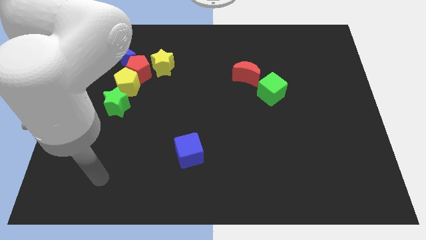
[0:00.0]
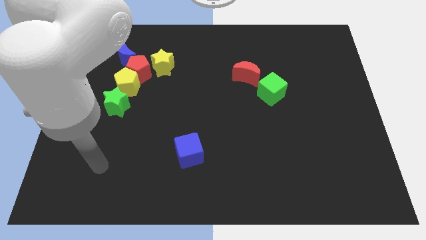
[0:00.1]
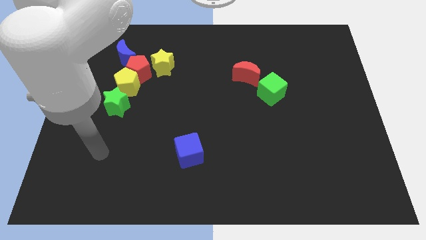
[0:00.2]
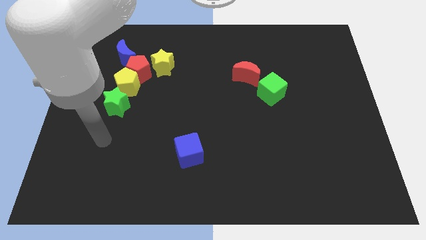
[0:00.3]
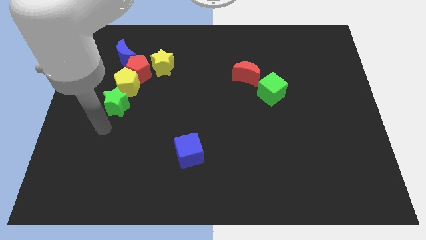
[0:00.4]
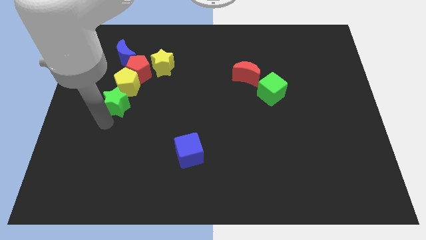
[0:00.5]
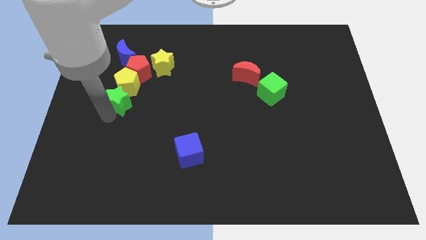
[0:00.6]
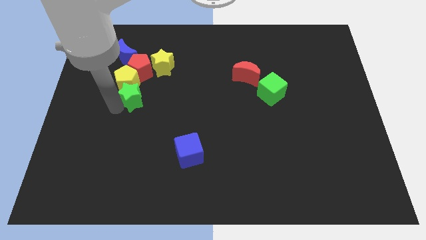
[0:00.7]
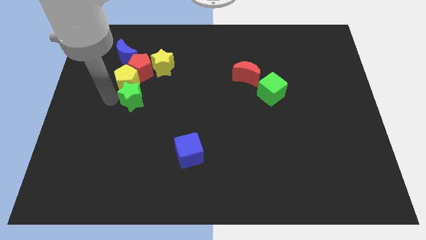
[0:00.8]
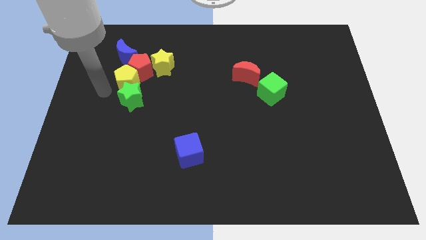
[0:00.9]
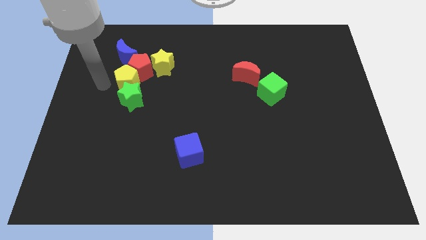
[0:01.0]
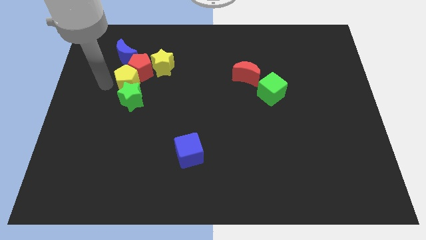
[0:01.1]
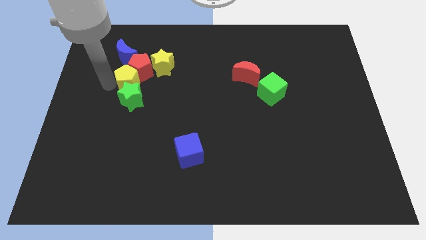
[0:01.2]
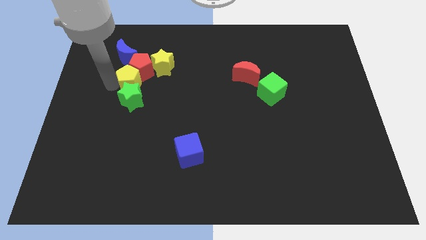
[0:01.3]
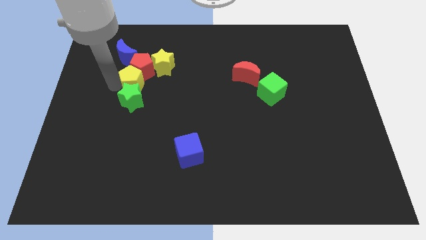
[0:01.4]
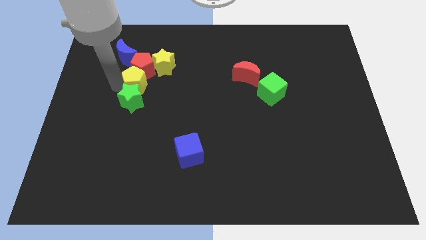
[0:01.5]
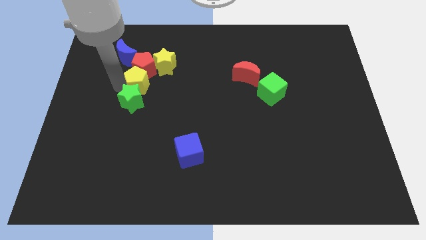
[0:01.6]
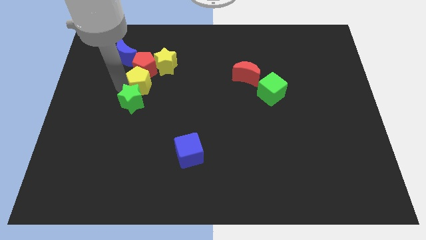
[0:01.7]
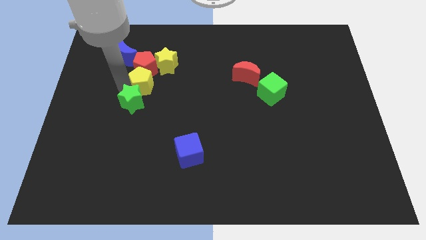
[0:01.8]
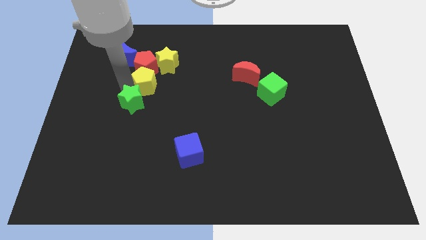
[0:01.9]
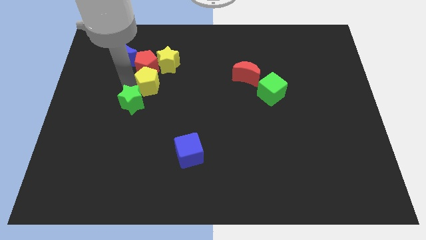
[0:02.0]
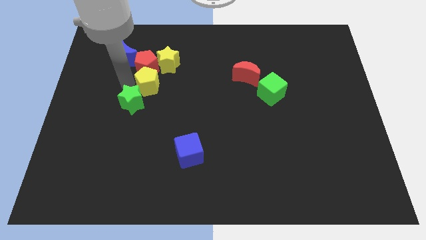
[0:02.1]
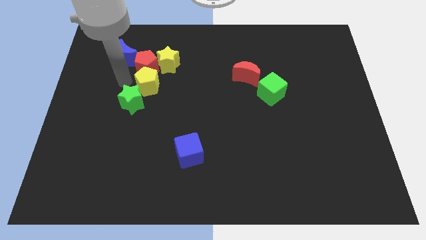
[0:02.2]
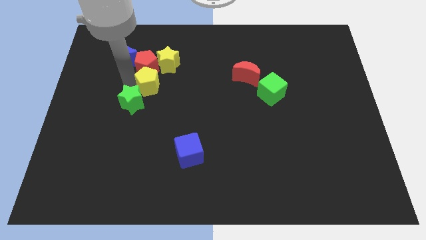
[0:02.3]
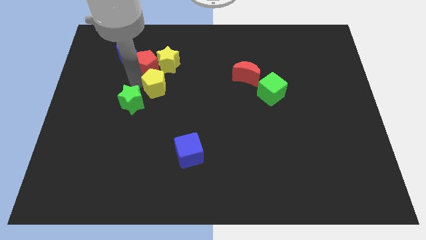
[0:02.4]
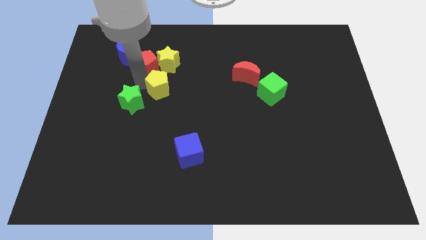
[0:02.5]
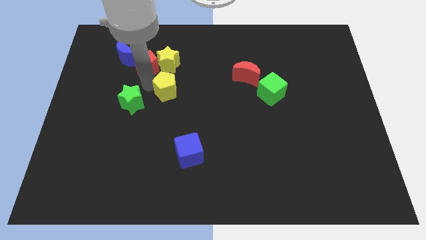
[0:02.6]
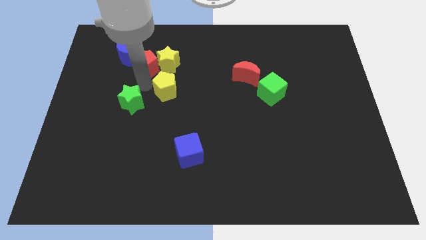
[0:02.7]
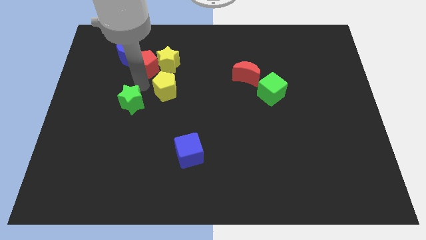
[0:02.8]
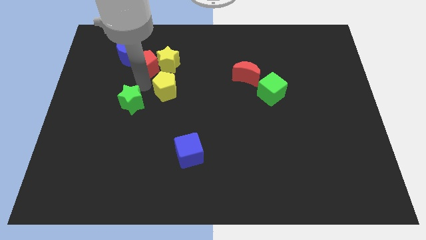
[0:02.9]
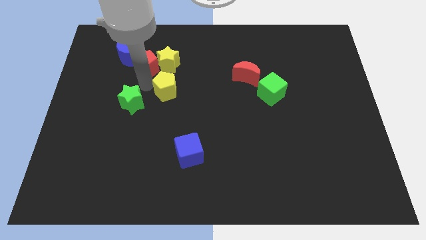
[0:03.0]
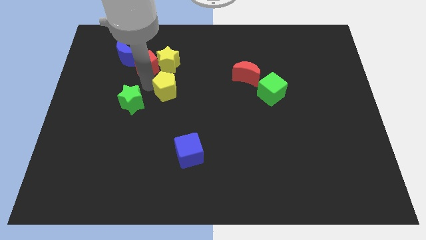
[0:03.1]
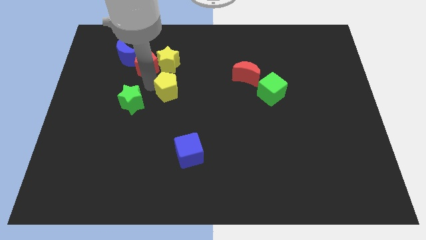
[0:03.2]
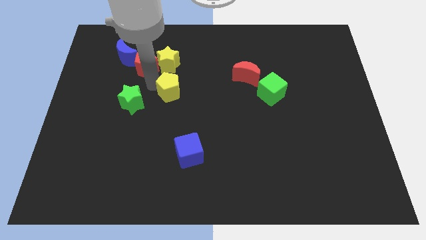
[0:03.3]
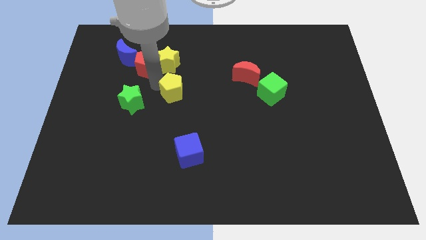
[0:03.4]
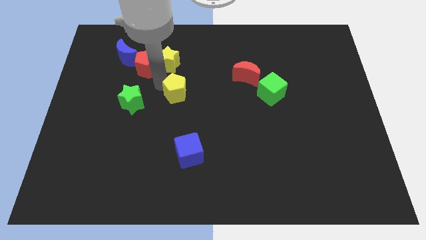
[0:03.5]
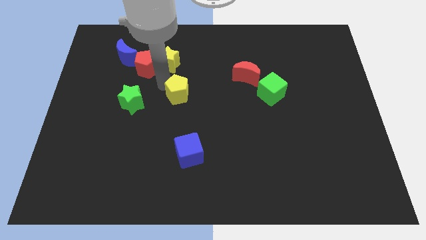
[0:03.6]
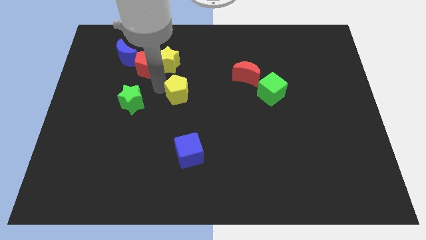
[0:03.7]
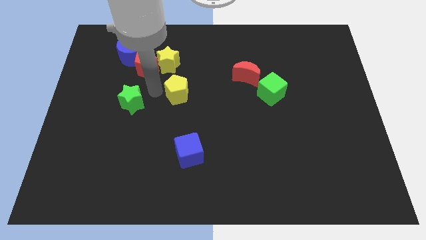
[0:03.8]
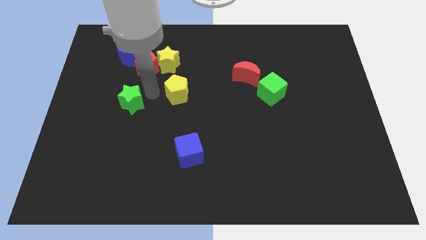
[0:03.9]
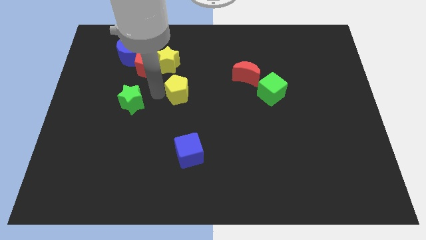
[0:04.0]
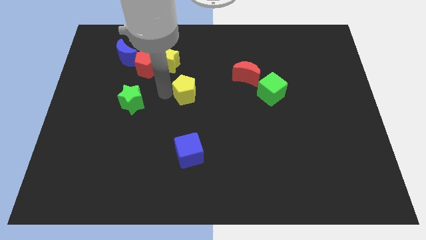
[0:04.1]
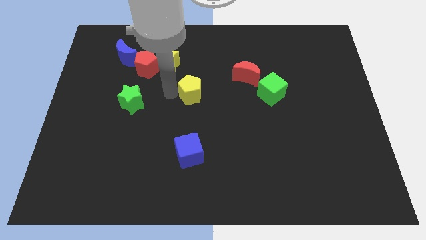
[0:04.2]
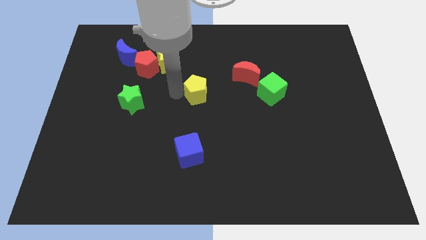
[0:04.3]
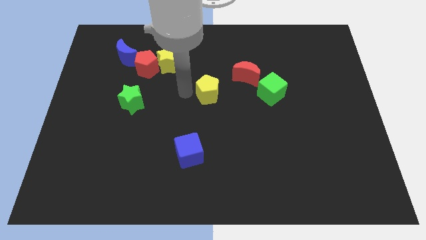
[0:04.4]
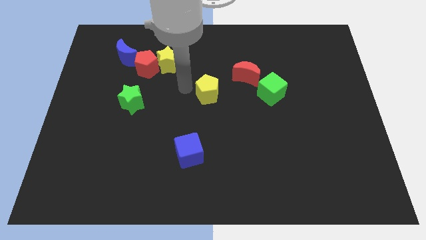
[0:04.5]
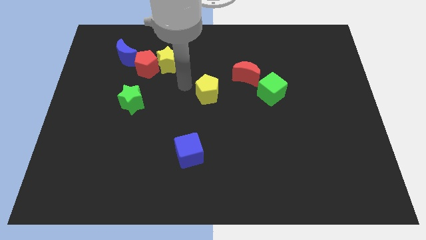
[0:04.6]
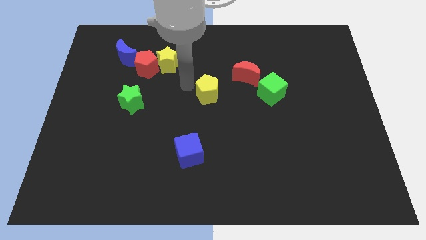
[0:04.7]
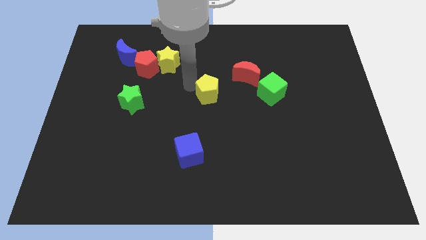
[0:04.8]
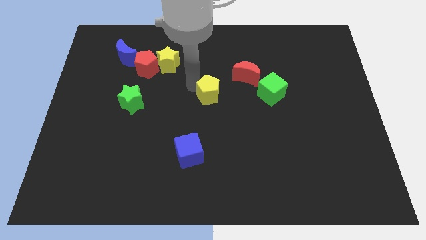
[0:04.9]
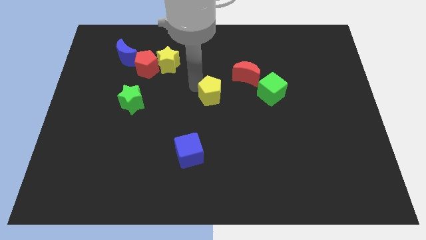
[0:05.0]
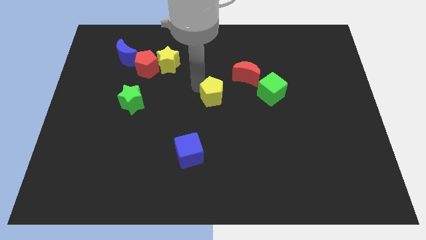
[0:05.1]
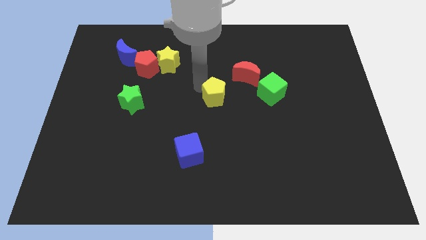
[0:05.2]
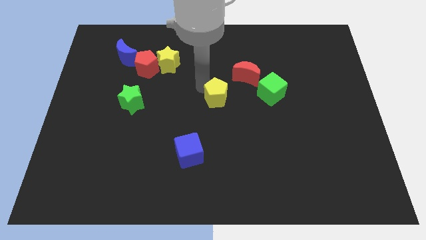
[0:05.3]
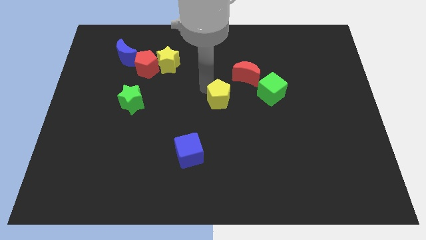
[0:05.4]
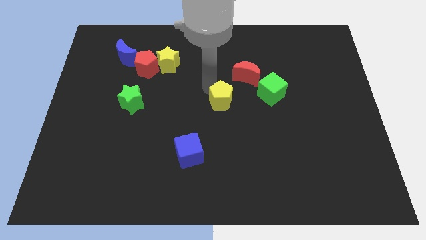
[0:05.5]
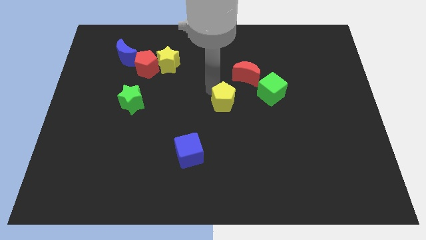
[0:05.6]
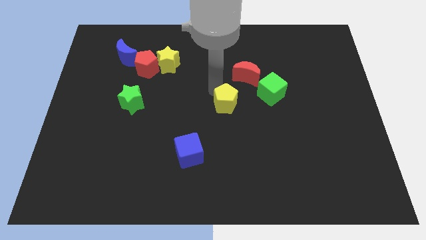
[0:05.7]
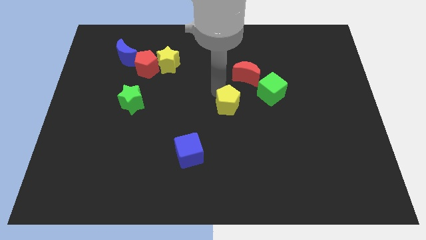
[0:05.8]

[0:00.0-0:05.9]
push the yellow pentagon to the bottom side of the red moon

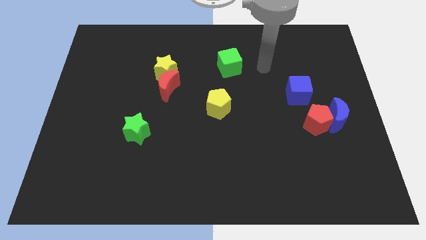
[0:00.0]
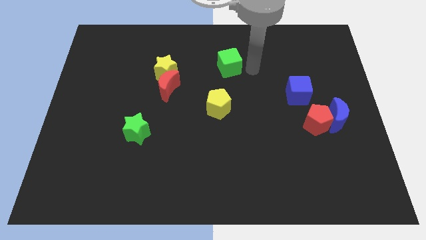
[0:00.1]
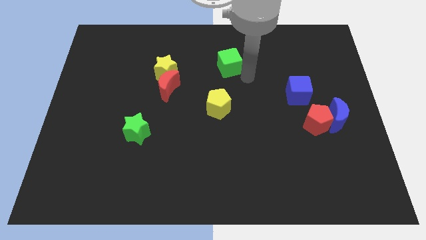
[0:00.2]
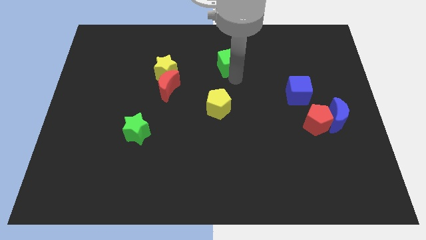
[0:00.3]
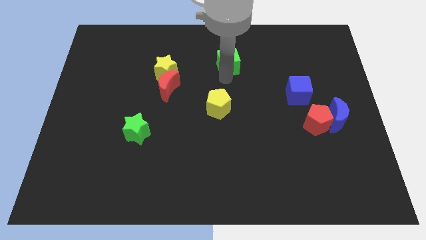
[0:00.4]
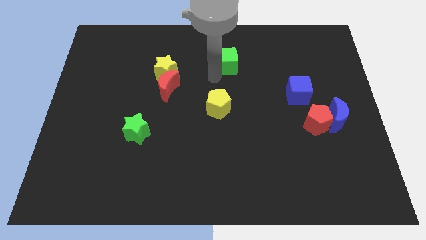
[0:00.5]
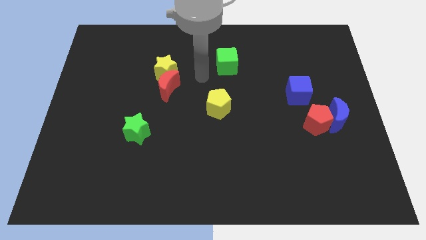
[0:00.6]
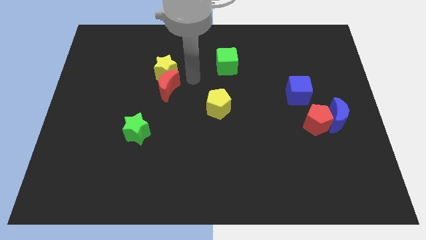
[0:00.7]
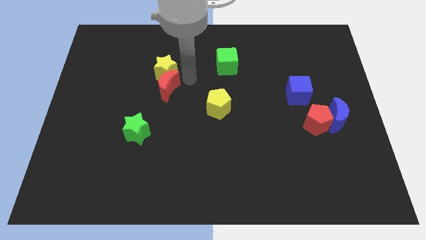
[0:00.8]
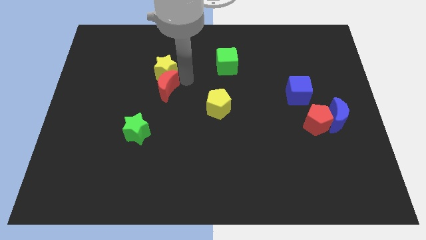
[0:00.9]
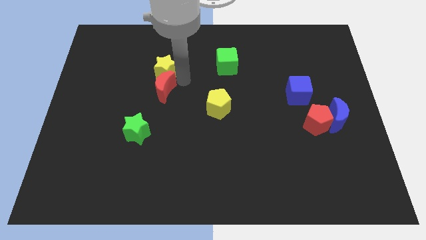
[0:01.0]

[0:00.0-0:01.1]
slide the red moon above the green star
